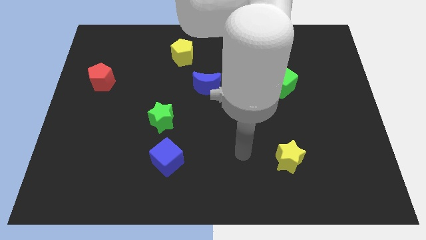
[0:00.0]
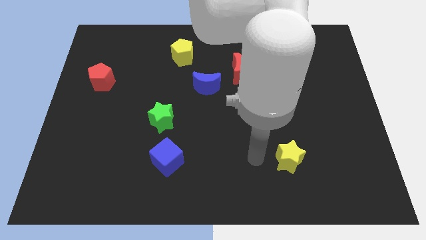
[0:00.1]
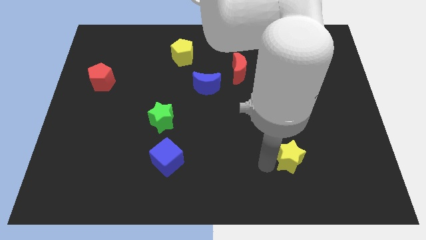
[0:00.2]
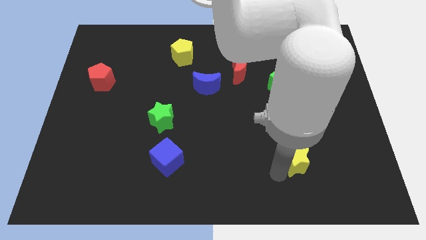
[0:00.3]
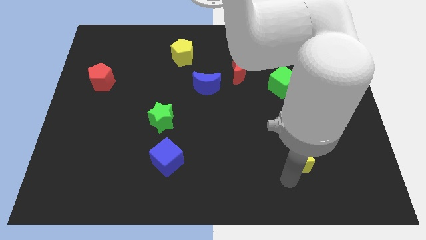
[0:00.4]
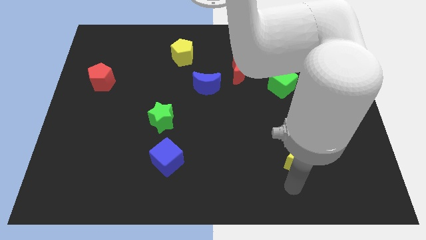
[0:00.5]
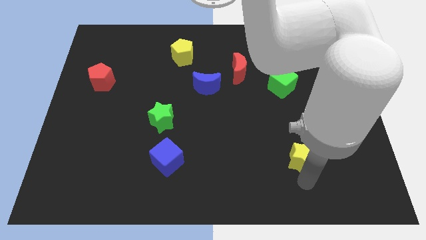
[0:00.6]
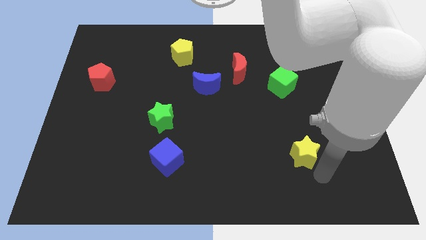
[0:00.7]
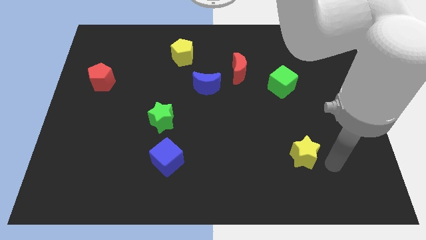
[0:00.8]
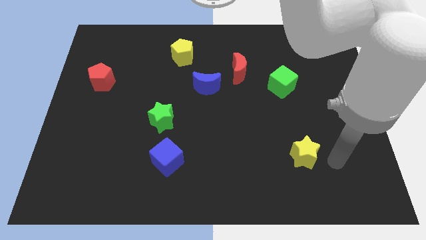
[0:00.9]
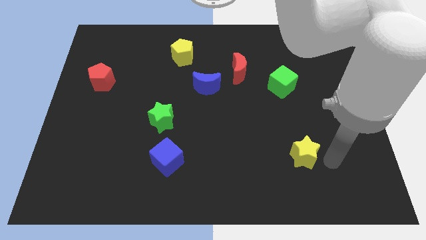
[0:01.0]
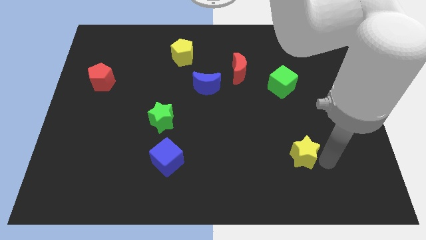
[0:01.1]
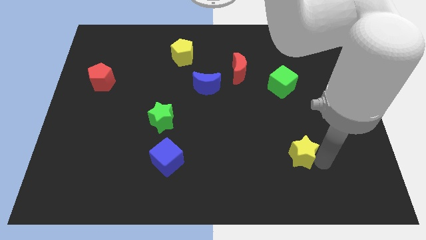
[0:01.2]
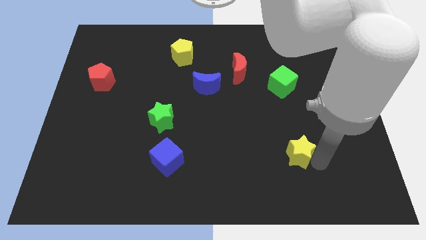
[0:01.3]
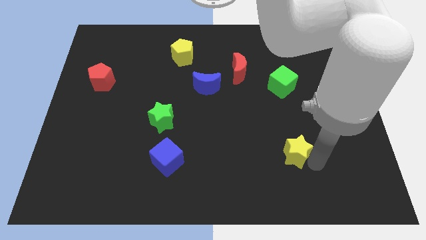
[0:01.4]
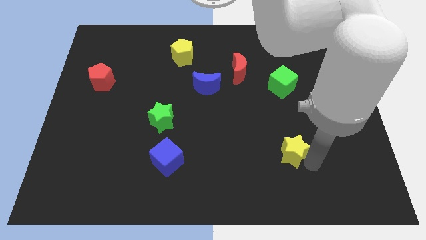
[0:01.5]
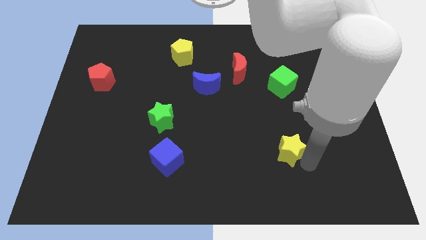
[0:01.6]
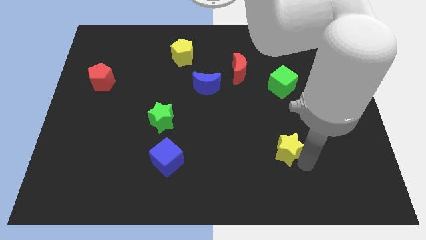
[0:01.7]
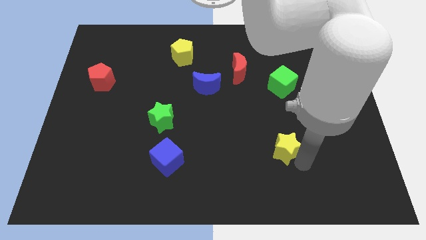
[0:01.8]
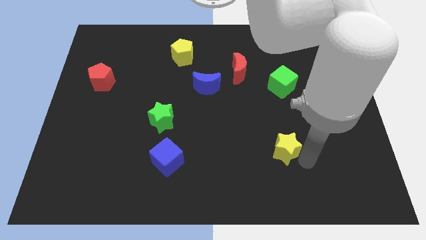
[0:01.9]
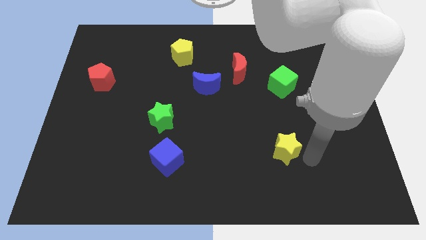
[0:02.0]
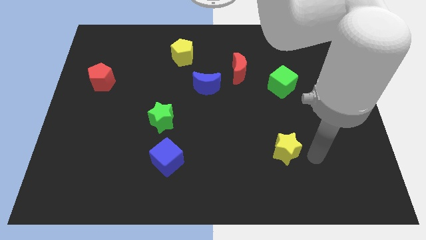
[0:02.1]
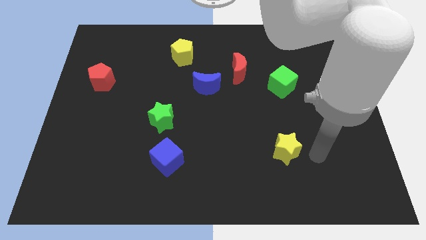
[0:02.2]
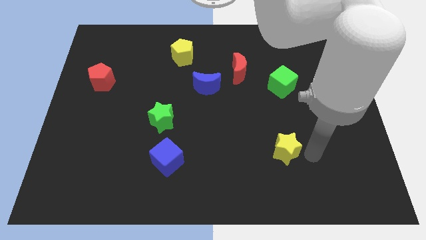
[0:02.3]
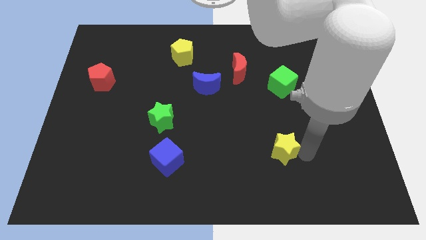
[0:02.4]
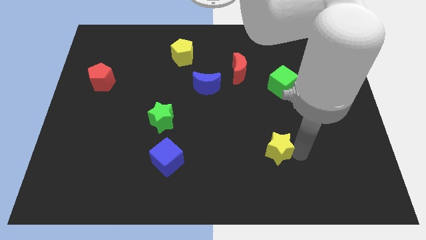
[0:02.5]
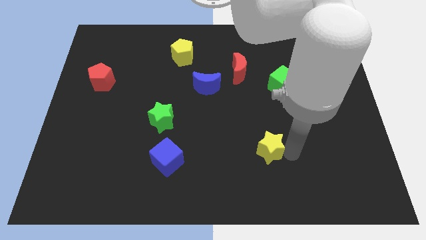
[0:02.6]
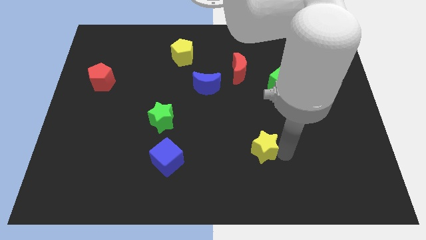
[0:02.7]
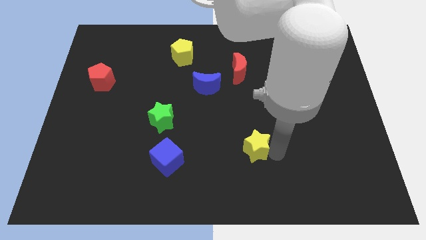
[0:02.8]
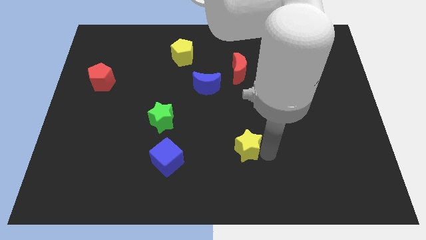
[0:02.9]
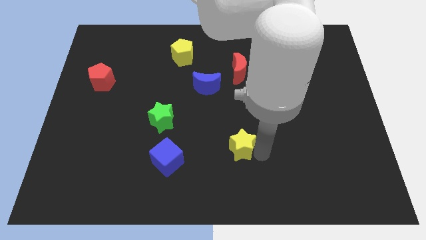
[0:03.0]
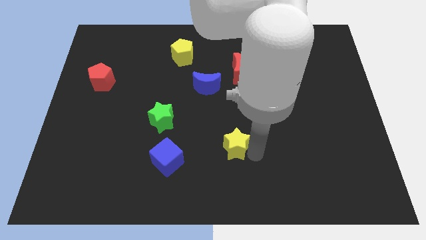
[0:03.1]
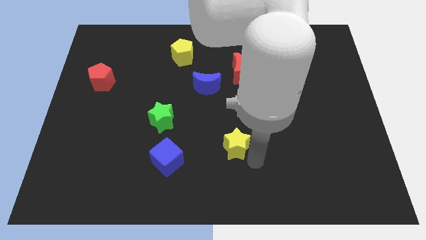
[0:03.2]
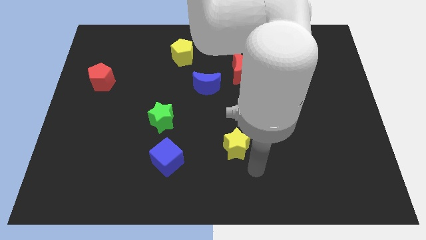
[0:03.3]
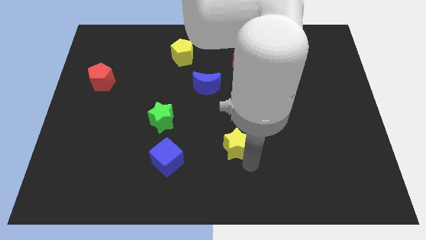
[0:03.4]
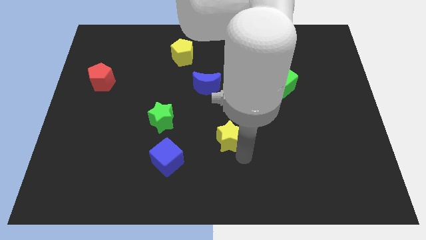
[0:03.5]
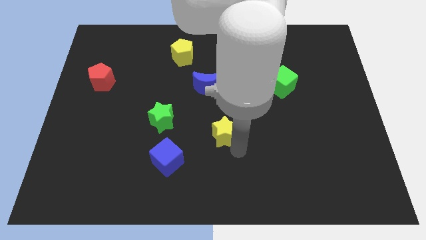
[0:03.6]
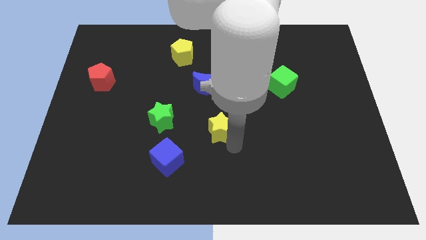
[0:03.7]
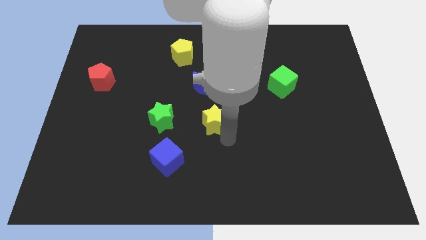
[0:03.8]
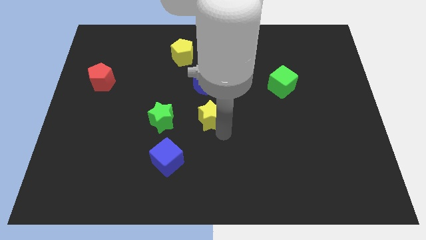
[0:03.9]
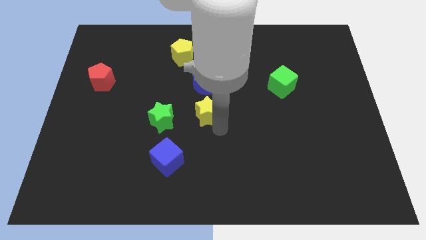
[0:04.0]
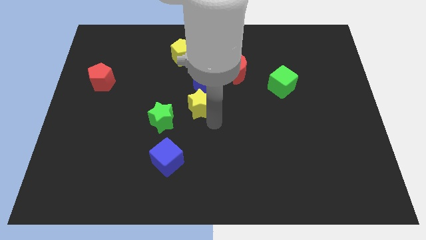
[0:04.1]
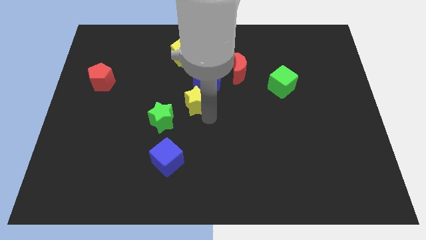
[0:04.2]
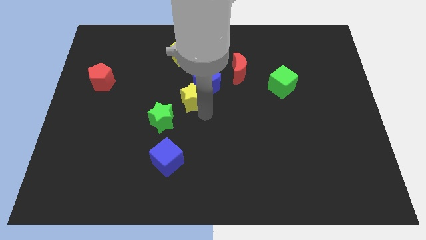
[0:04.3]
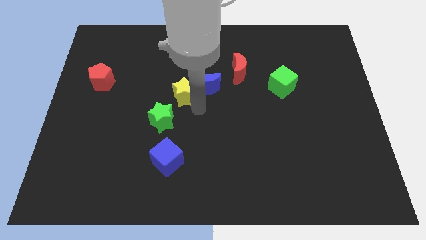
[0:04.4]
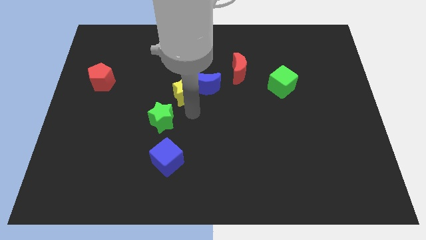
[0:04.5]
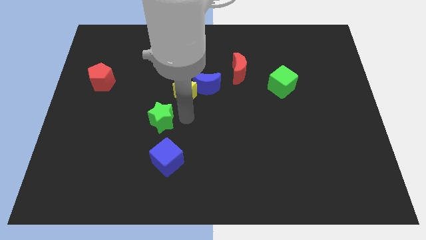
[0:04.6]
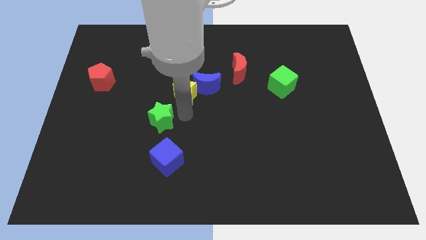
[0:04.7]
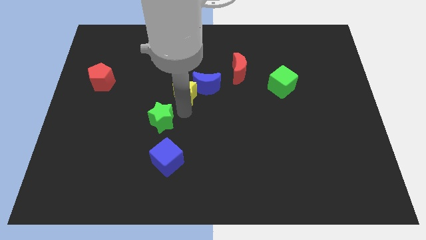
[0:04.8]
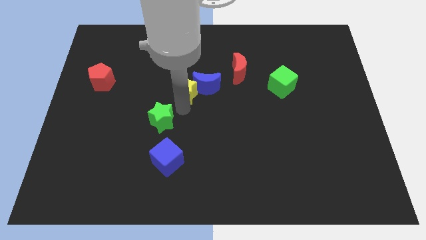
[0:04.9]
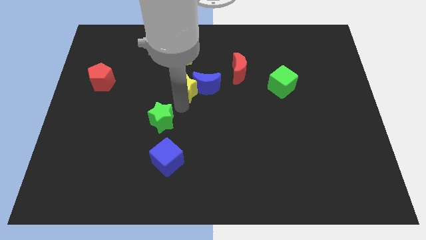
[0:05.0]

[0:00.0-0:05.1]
slide the yellow star to the top left side of the blue moon

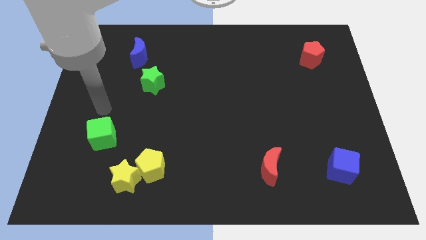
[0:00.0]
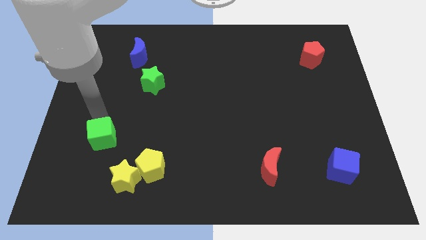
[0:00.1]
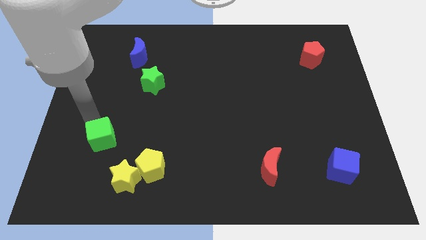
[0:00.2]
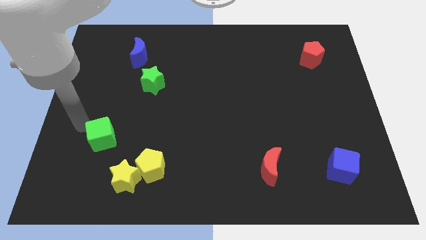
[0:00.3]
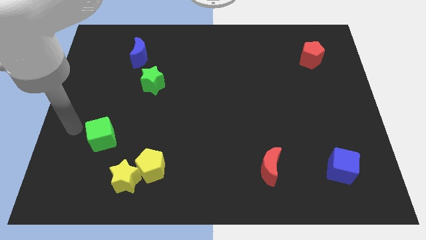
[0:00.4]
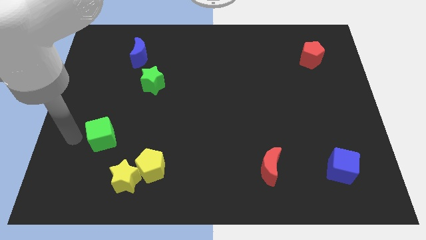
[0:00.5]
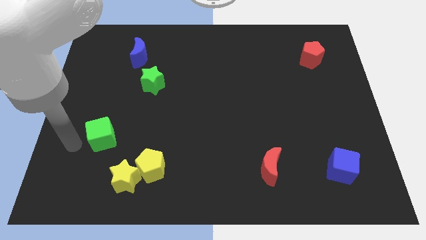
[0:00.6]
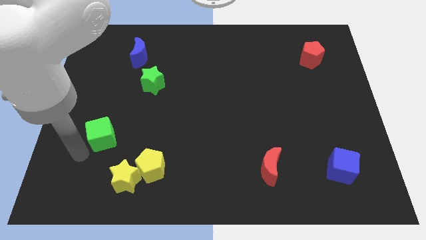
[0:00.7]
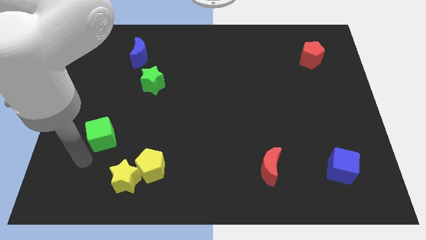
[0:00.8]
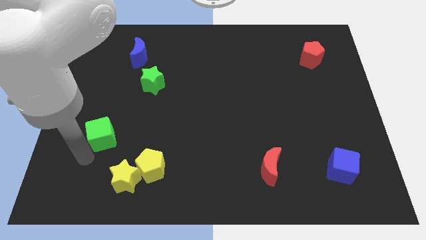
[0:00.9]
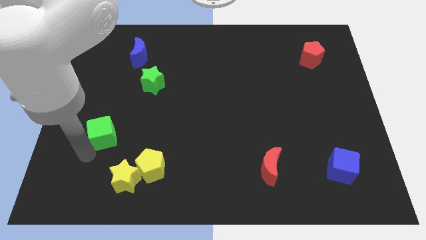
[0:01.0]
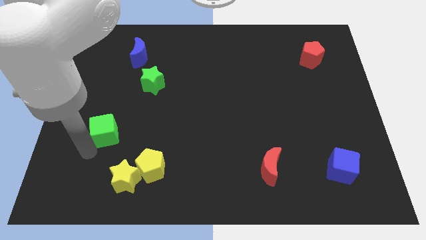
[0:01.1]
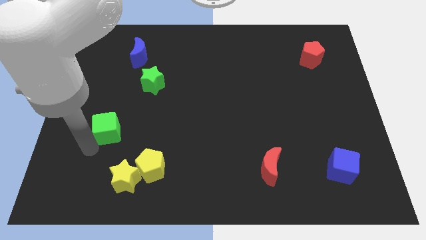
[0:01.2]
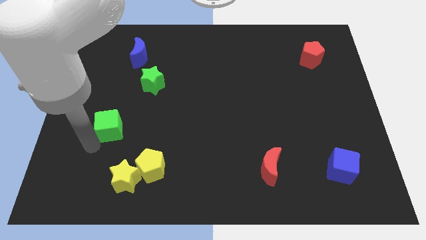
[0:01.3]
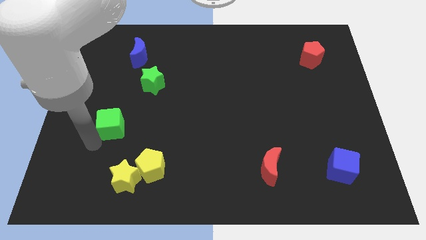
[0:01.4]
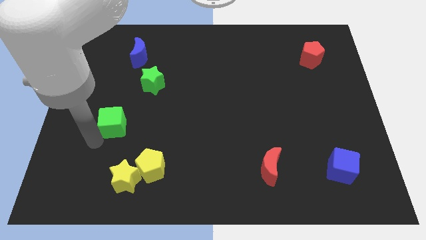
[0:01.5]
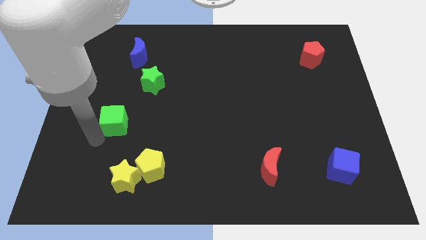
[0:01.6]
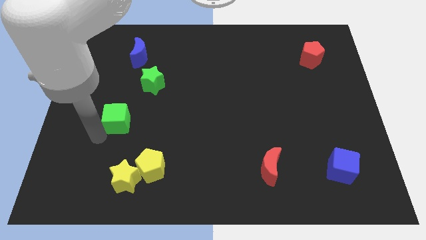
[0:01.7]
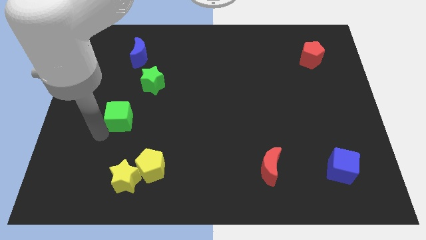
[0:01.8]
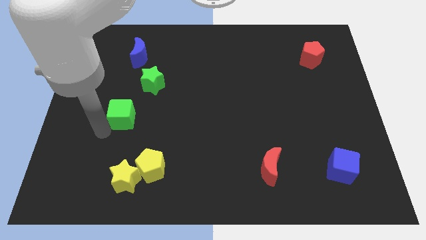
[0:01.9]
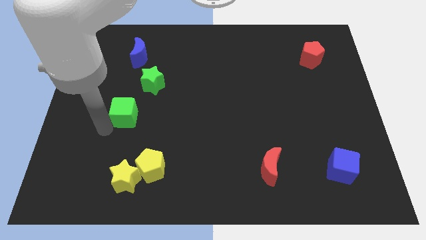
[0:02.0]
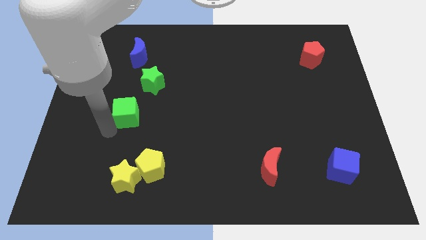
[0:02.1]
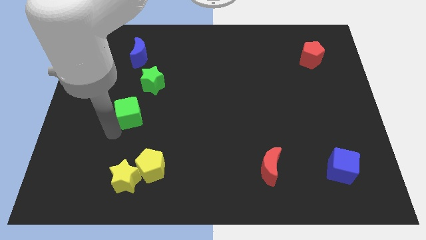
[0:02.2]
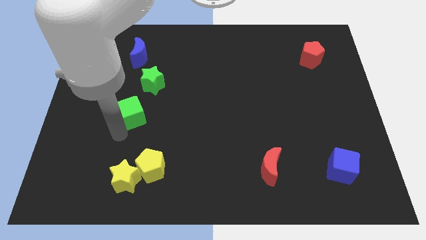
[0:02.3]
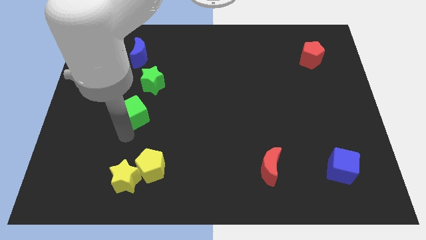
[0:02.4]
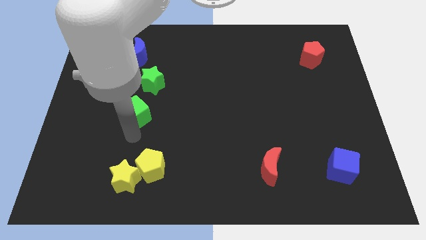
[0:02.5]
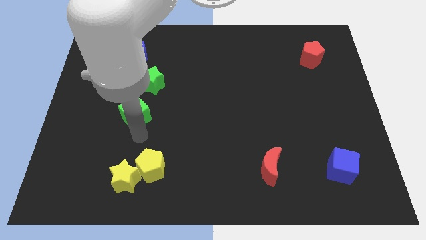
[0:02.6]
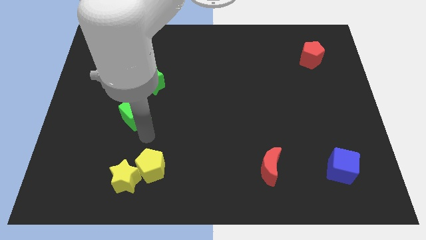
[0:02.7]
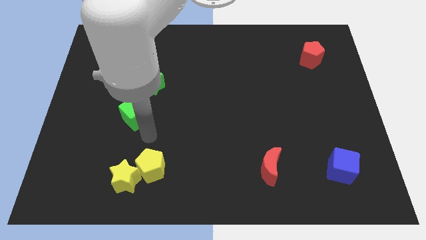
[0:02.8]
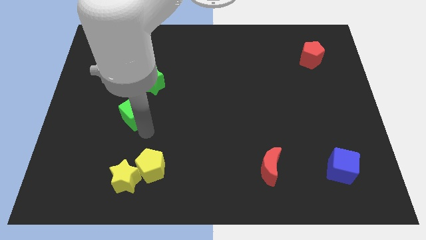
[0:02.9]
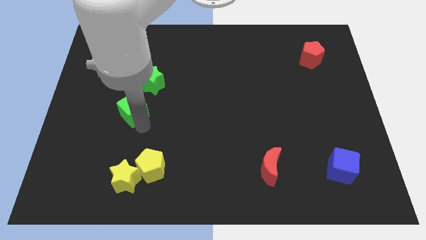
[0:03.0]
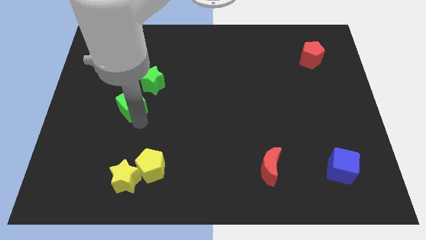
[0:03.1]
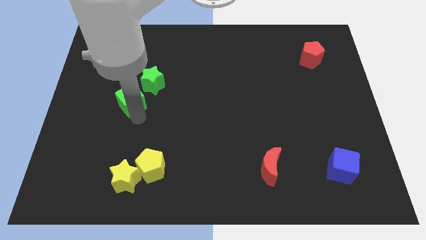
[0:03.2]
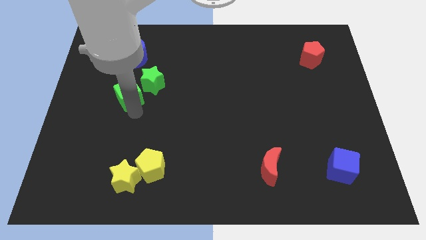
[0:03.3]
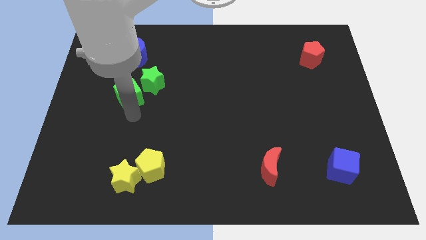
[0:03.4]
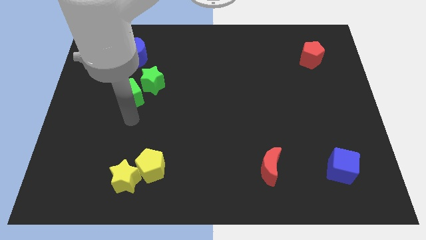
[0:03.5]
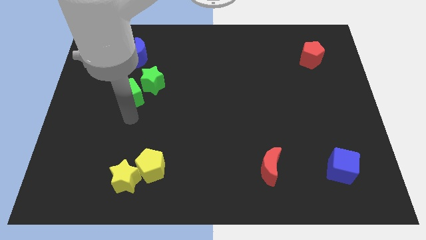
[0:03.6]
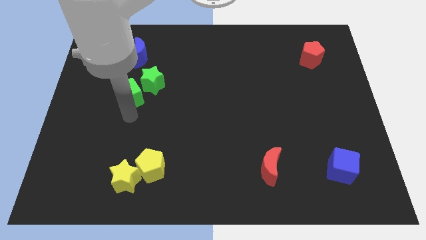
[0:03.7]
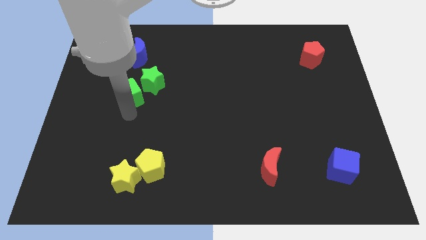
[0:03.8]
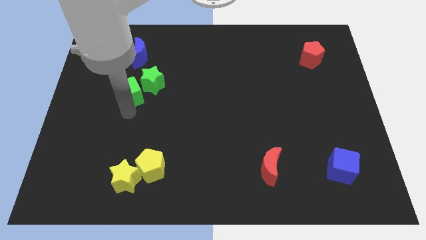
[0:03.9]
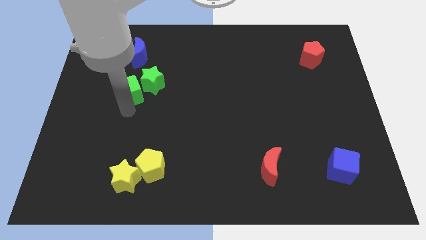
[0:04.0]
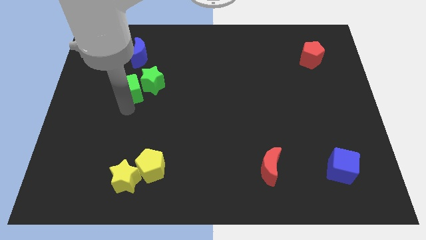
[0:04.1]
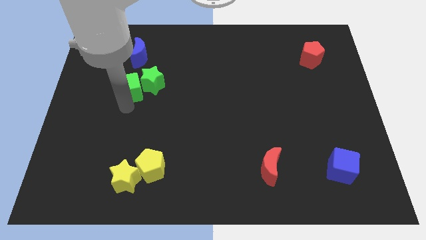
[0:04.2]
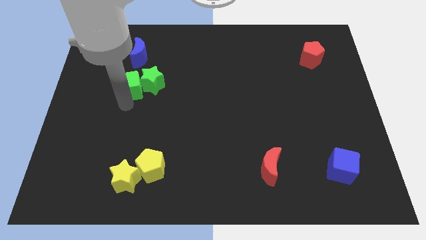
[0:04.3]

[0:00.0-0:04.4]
move the green cube to the top left side of the green star
